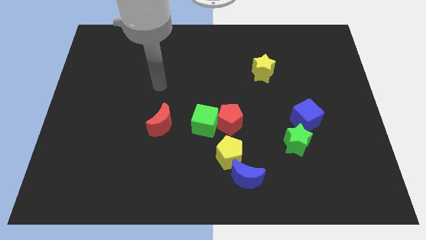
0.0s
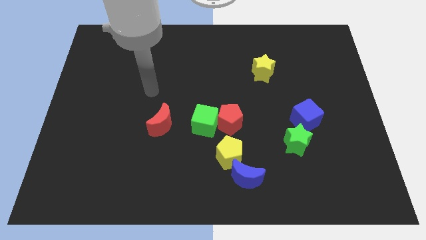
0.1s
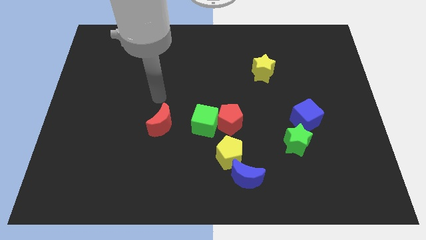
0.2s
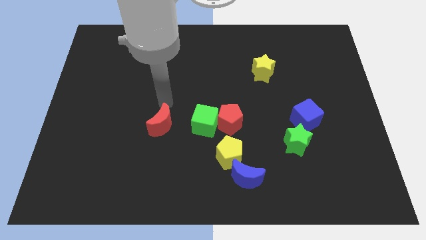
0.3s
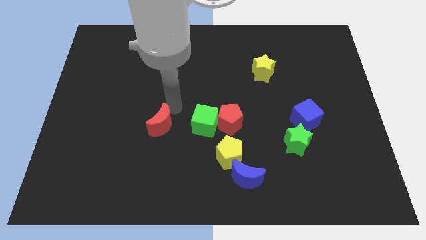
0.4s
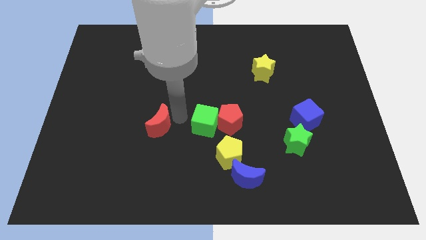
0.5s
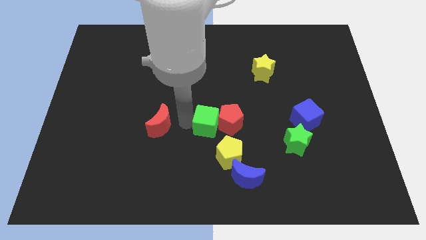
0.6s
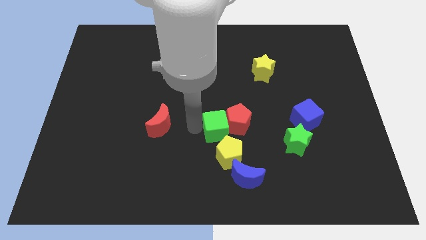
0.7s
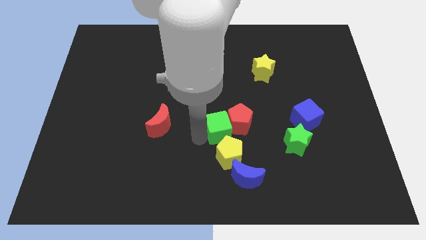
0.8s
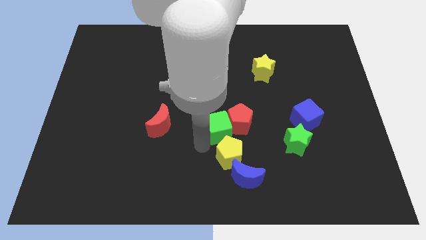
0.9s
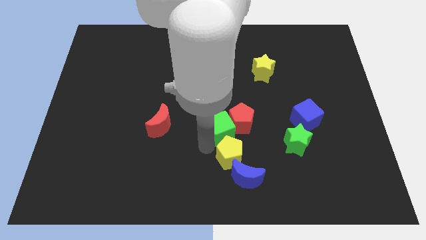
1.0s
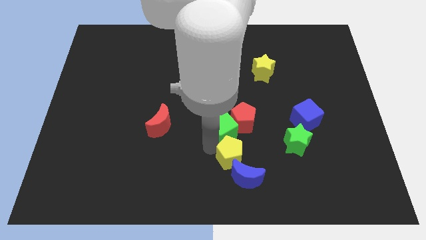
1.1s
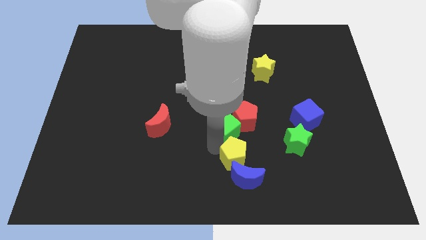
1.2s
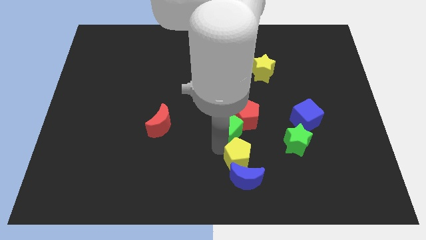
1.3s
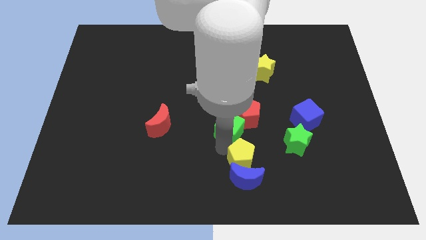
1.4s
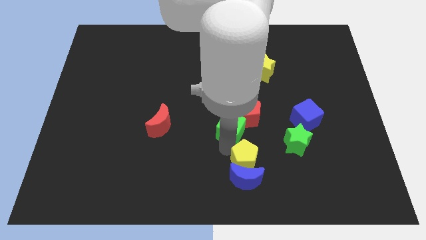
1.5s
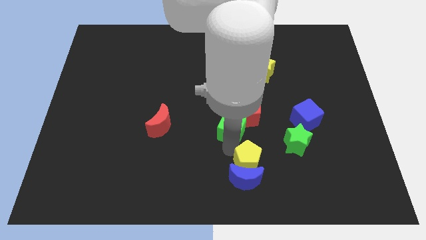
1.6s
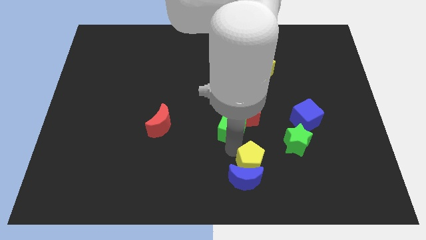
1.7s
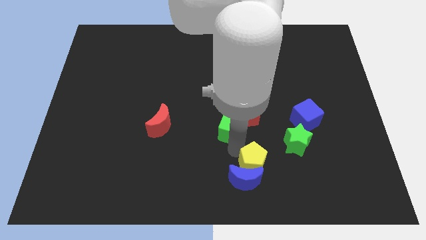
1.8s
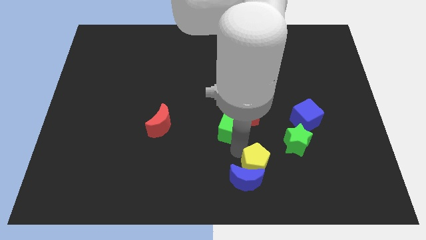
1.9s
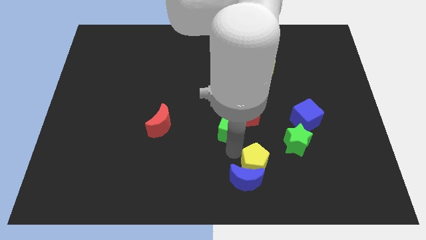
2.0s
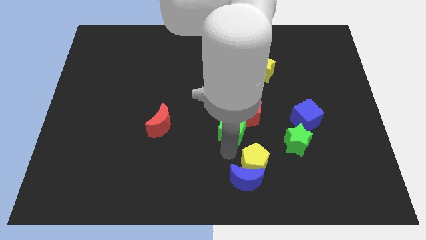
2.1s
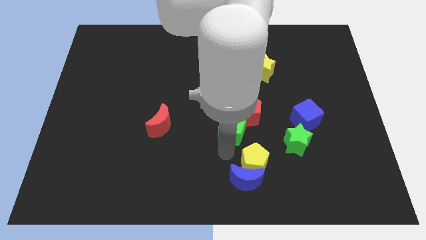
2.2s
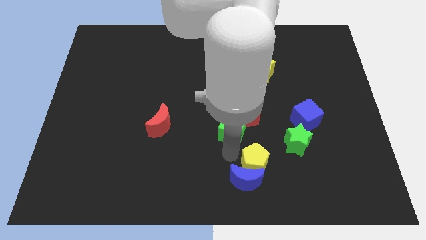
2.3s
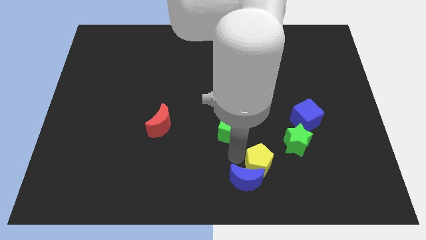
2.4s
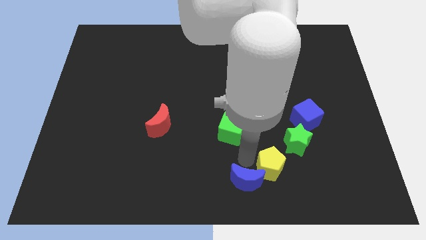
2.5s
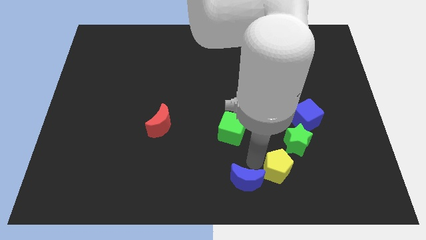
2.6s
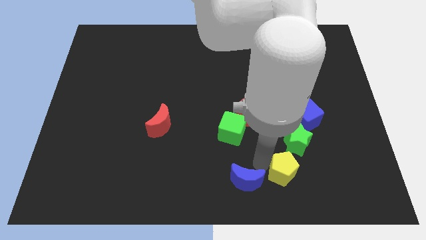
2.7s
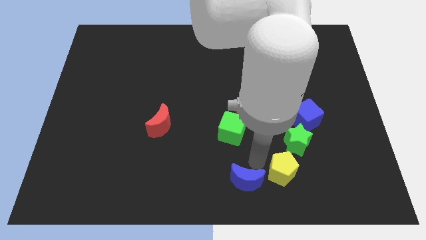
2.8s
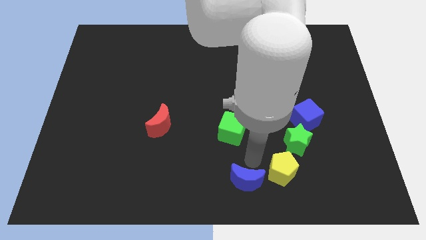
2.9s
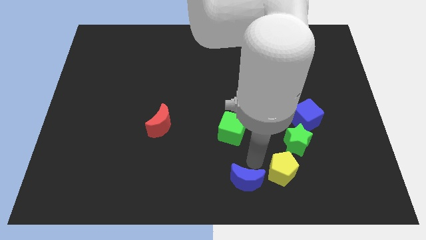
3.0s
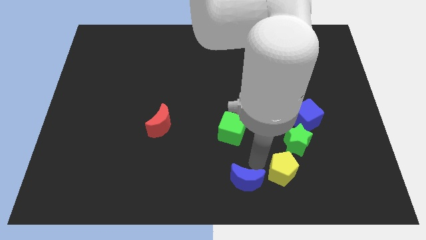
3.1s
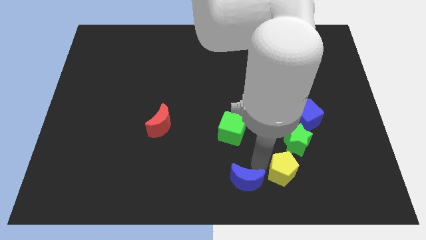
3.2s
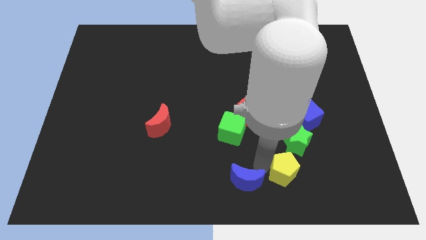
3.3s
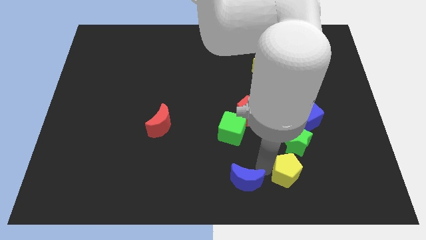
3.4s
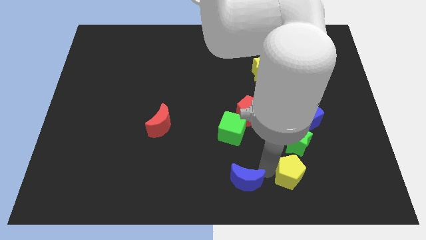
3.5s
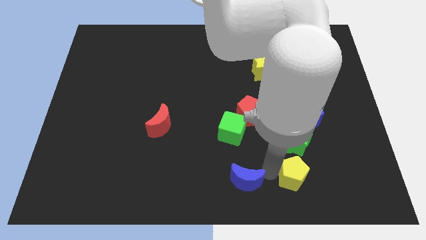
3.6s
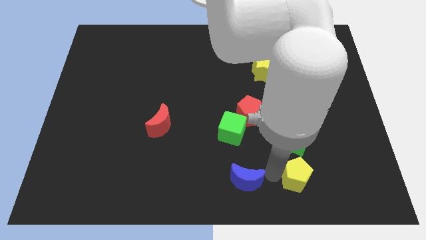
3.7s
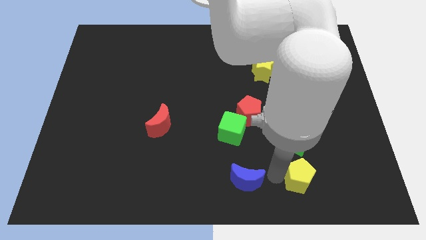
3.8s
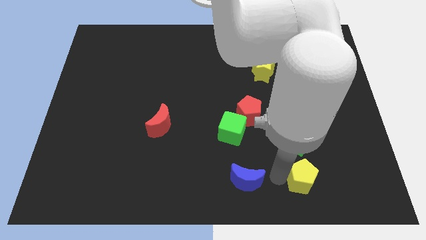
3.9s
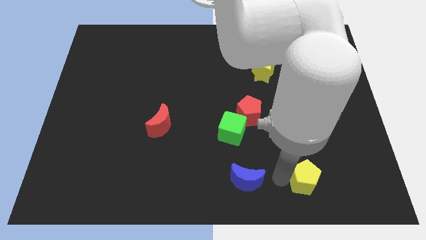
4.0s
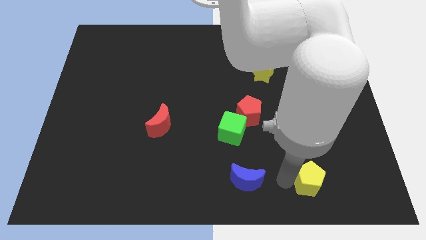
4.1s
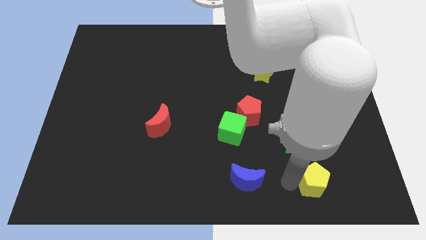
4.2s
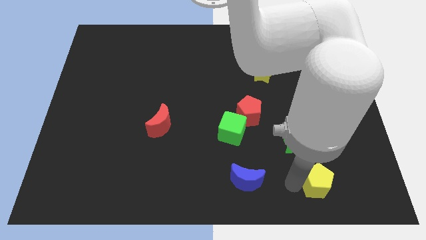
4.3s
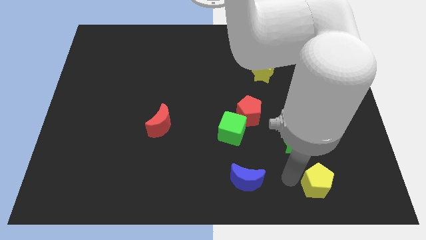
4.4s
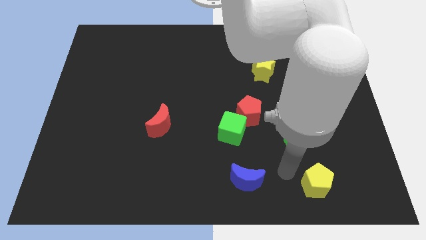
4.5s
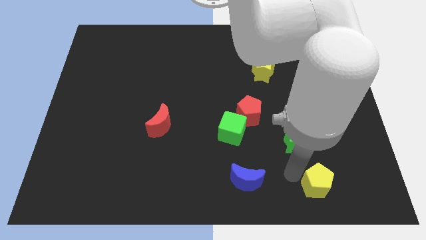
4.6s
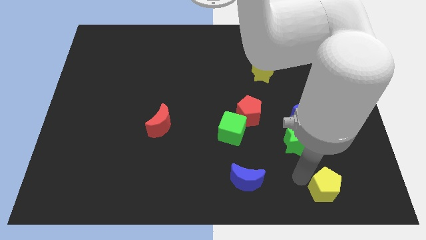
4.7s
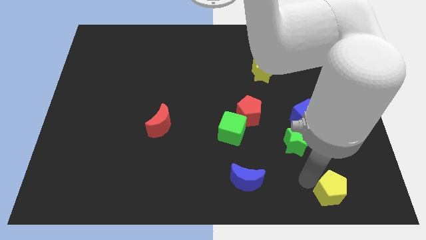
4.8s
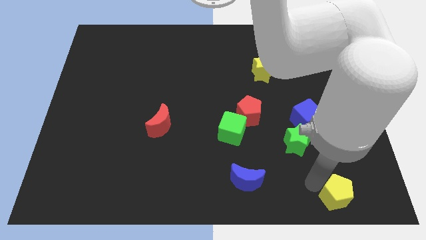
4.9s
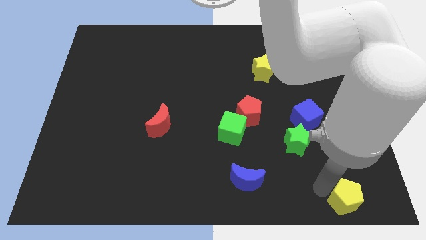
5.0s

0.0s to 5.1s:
push the yellow pentagon to the bottom right

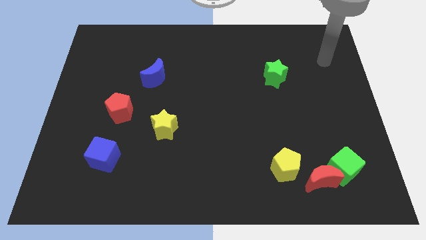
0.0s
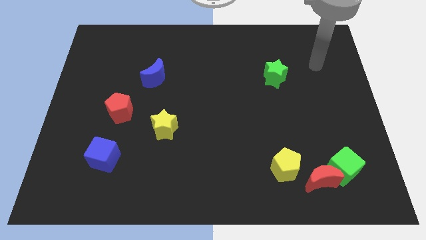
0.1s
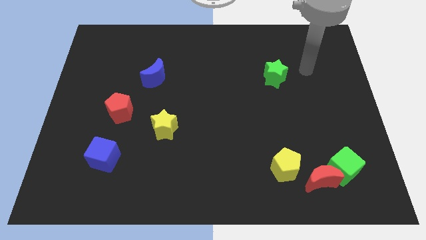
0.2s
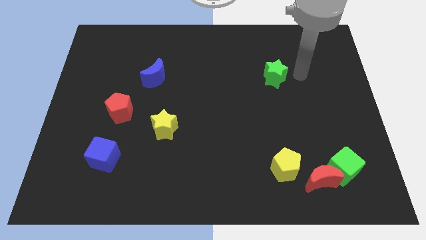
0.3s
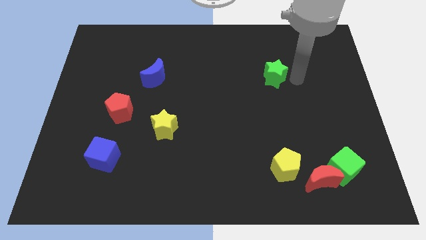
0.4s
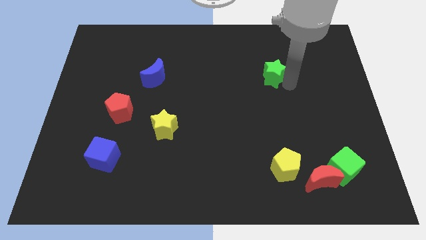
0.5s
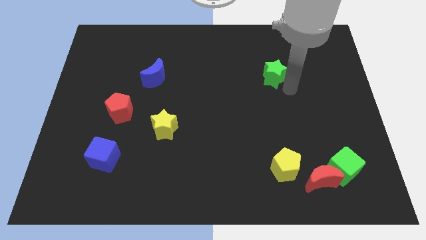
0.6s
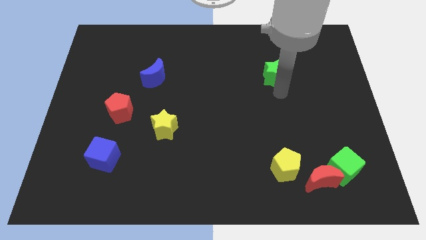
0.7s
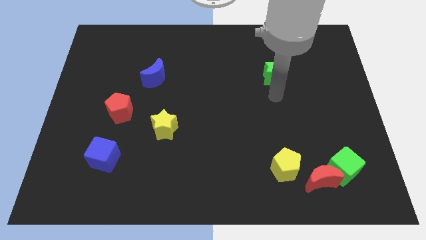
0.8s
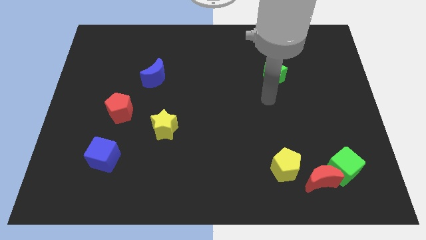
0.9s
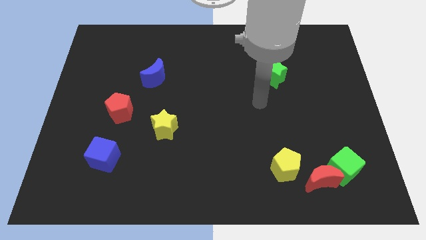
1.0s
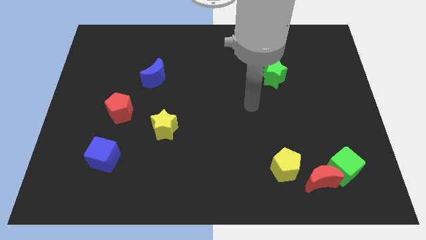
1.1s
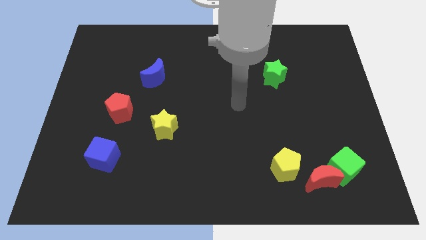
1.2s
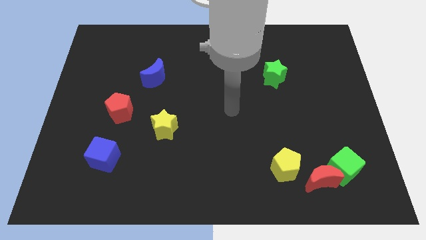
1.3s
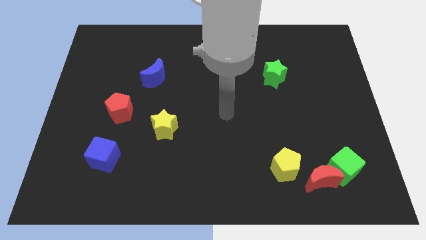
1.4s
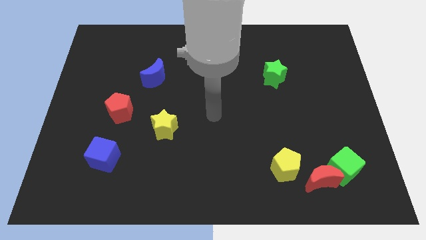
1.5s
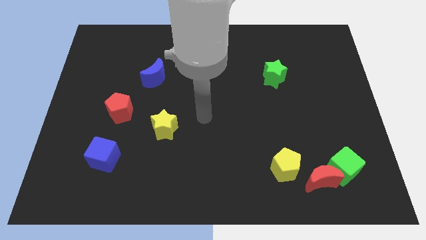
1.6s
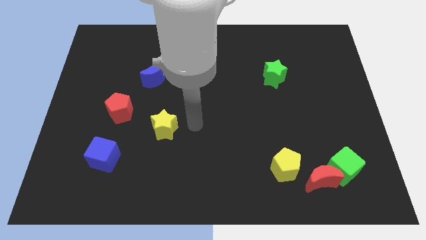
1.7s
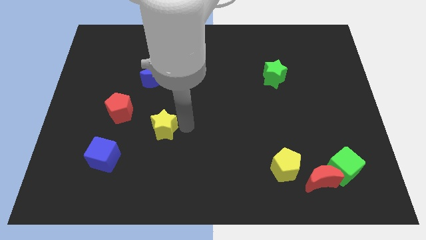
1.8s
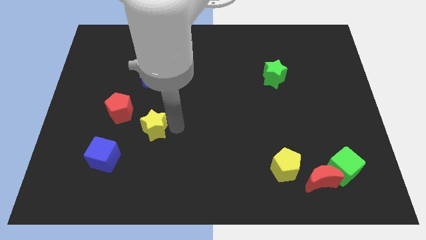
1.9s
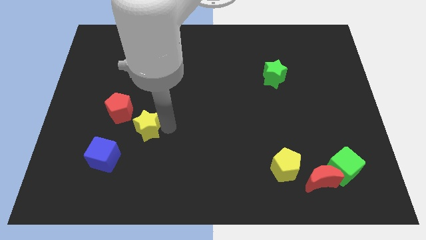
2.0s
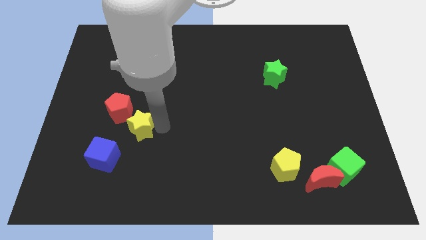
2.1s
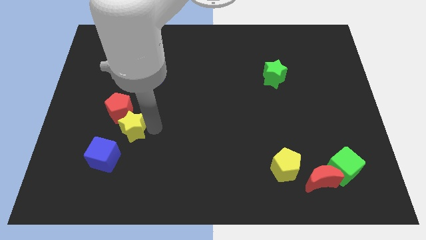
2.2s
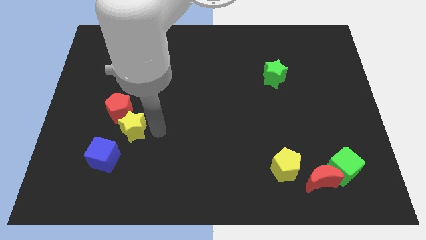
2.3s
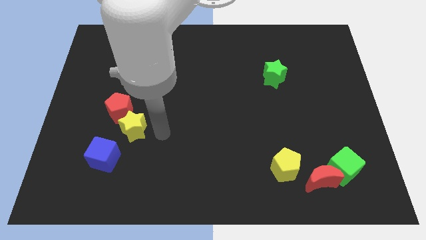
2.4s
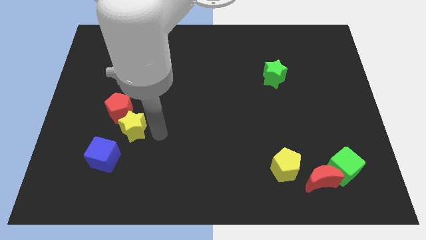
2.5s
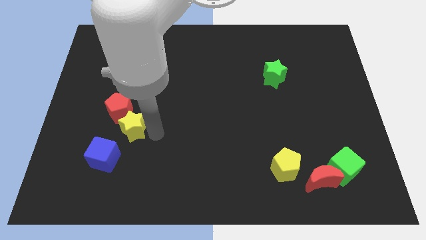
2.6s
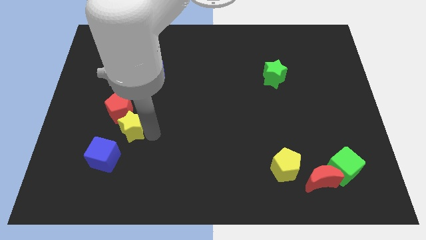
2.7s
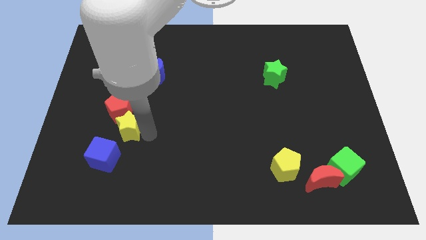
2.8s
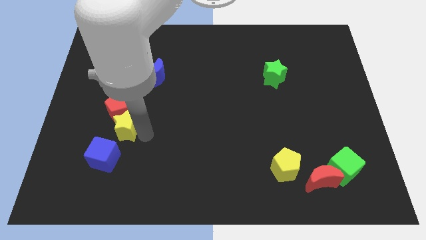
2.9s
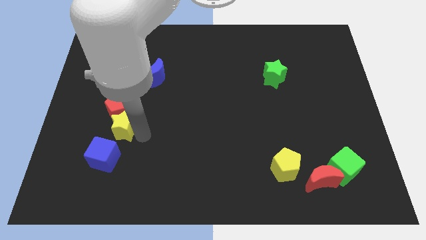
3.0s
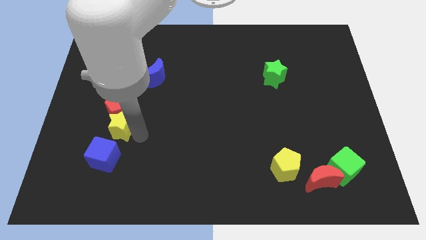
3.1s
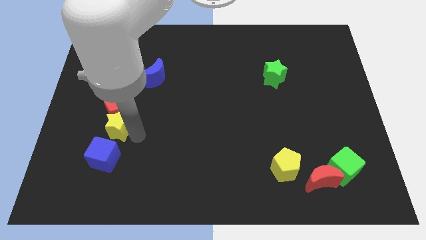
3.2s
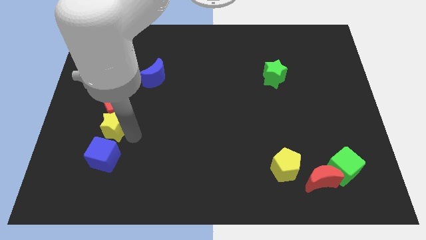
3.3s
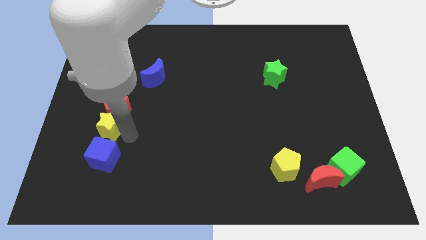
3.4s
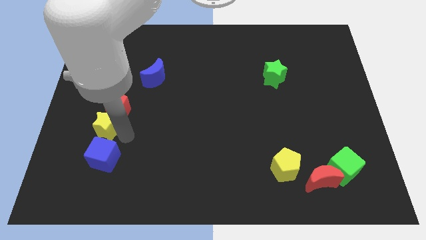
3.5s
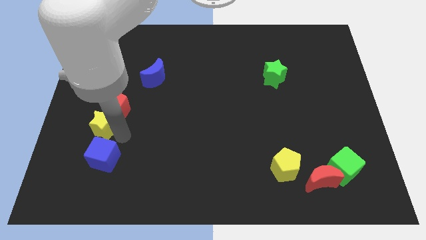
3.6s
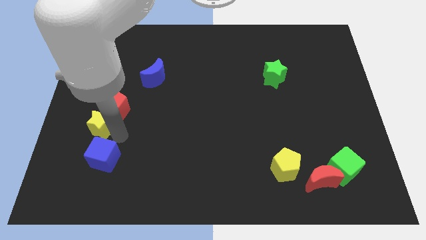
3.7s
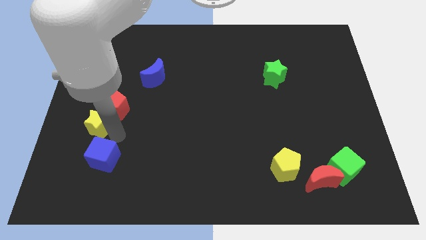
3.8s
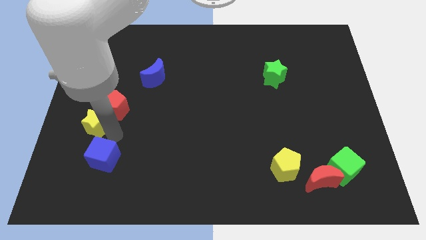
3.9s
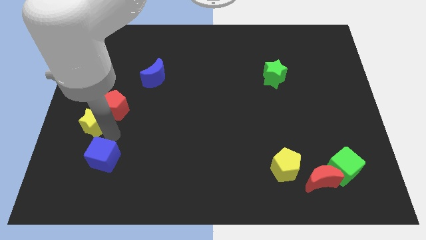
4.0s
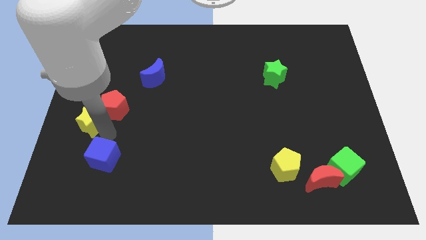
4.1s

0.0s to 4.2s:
move the yellow star to the left side
